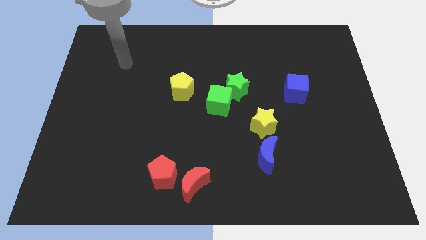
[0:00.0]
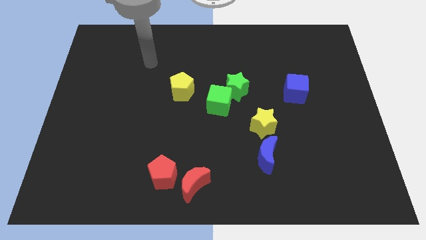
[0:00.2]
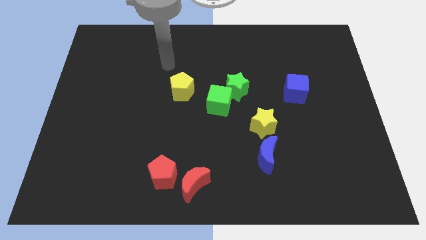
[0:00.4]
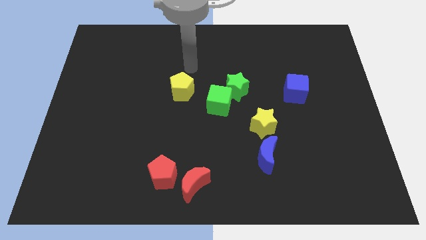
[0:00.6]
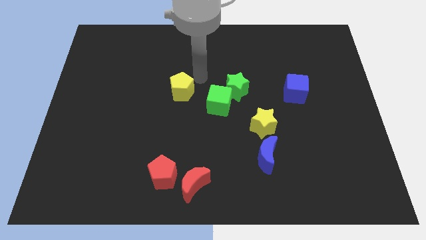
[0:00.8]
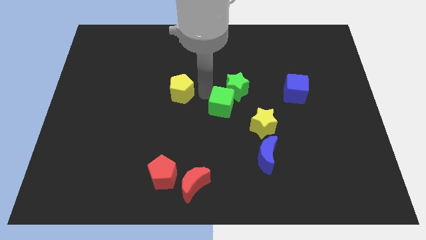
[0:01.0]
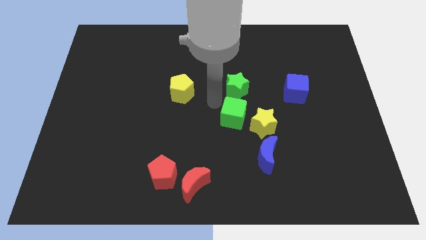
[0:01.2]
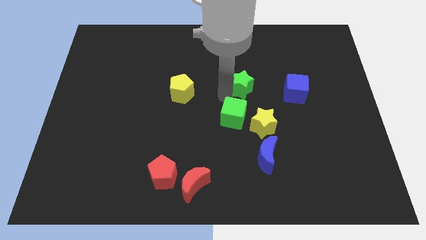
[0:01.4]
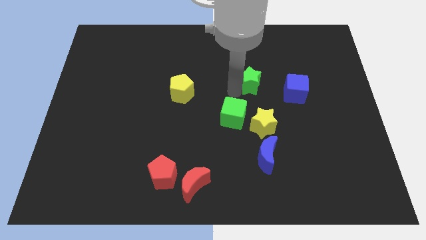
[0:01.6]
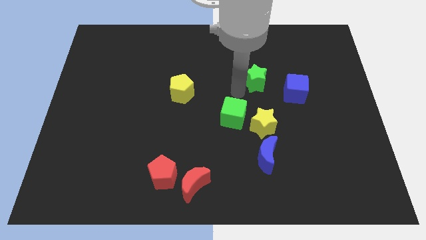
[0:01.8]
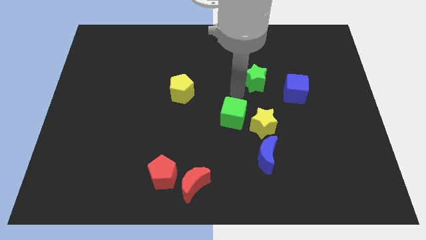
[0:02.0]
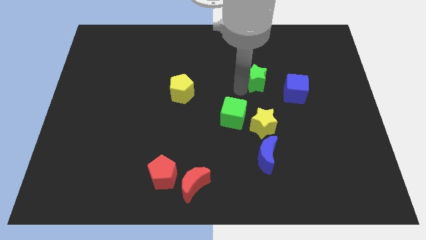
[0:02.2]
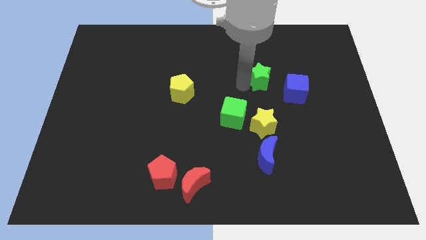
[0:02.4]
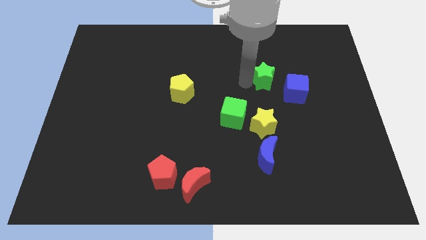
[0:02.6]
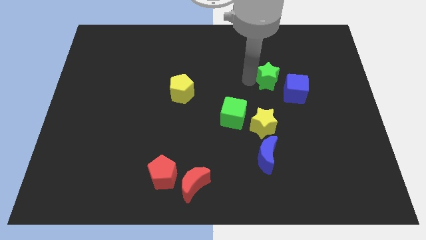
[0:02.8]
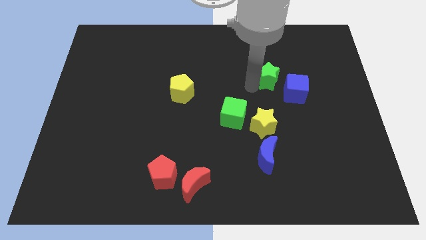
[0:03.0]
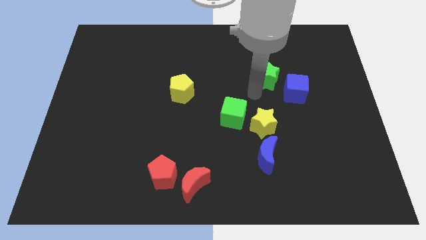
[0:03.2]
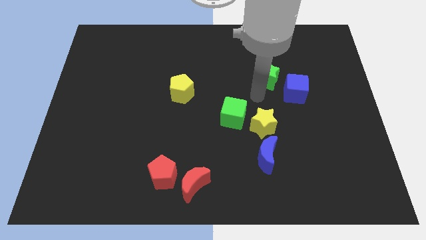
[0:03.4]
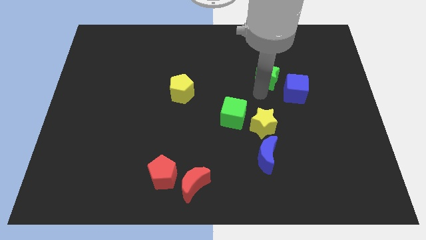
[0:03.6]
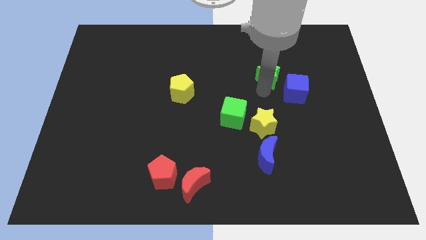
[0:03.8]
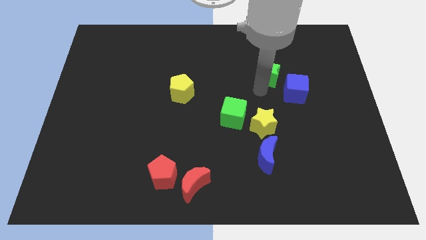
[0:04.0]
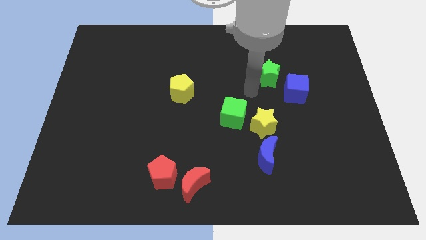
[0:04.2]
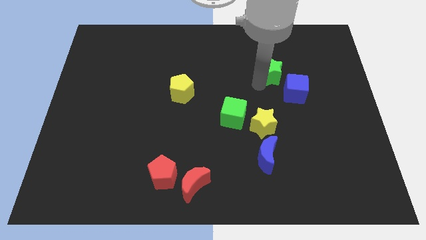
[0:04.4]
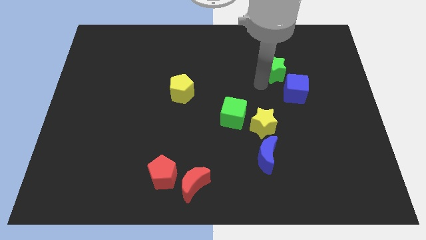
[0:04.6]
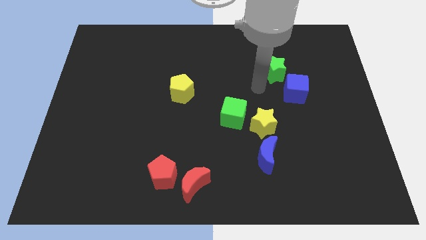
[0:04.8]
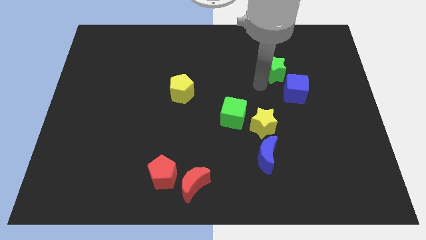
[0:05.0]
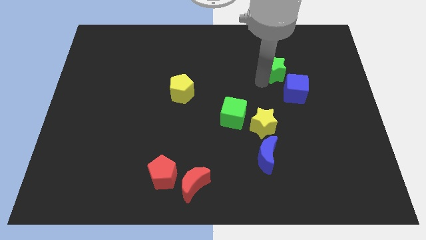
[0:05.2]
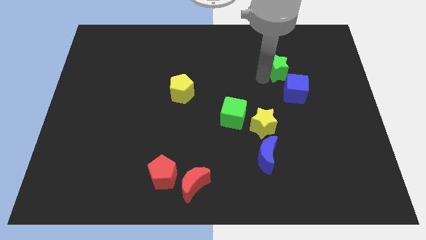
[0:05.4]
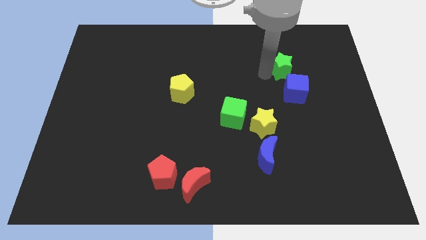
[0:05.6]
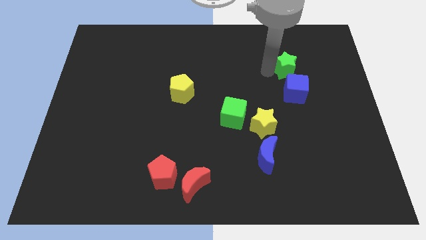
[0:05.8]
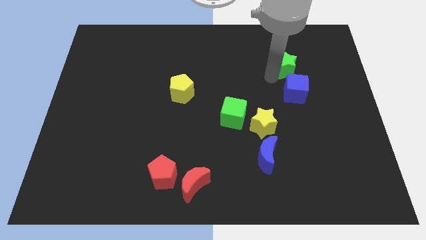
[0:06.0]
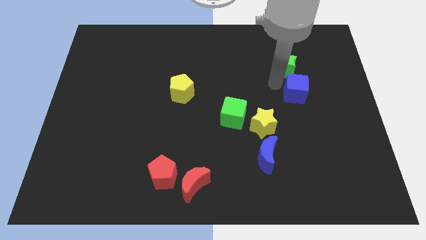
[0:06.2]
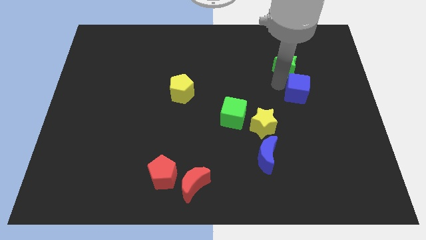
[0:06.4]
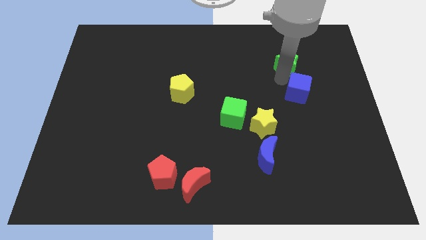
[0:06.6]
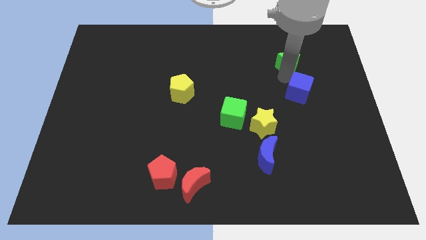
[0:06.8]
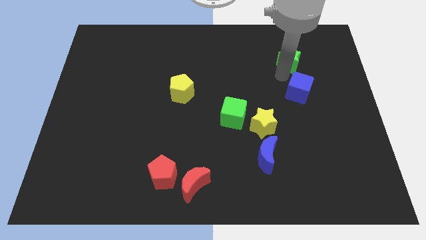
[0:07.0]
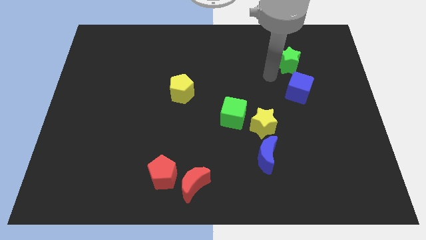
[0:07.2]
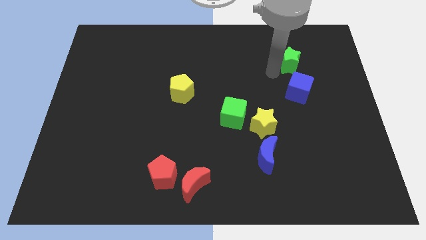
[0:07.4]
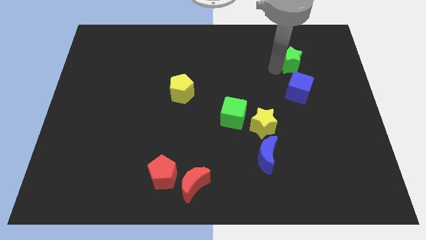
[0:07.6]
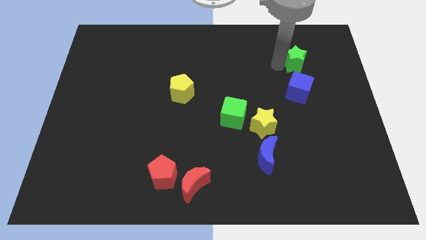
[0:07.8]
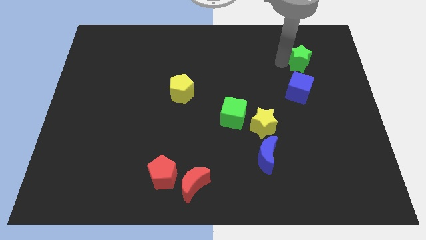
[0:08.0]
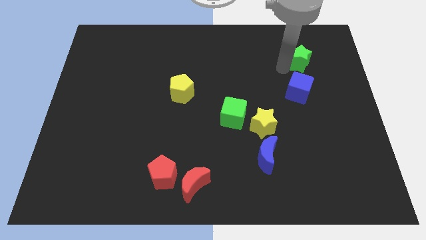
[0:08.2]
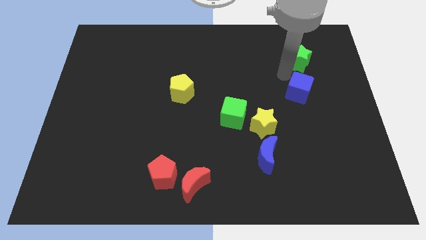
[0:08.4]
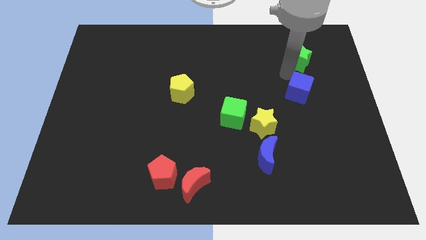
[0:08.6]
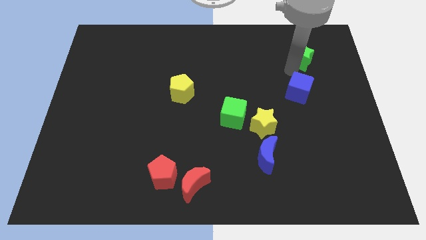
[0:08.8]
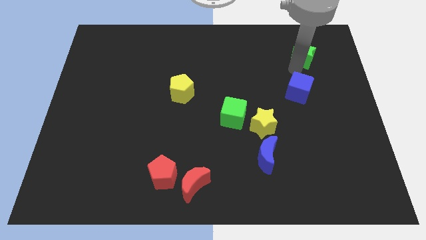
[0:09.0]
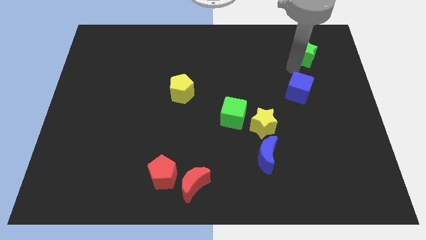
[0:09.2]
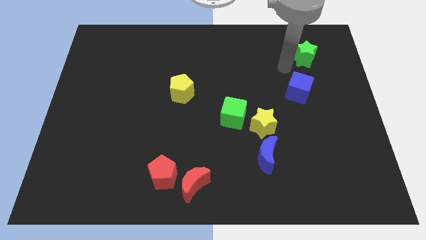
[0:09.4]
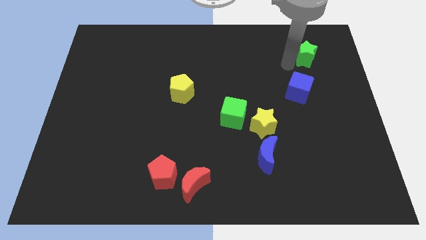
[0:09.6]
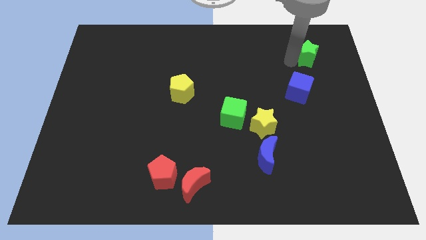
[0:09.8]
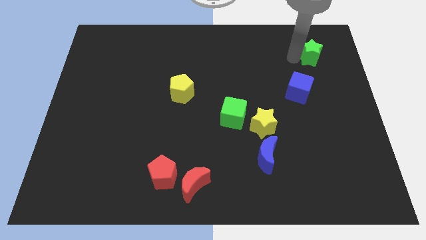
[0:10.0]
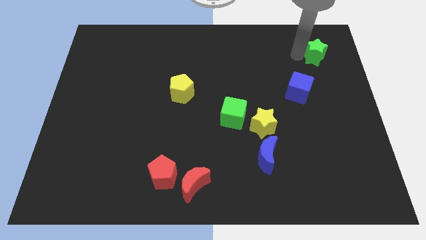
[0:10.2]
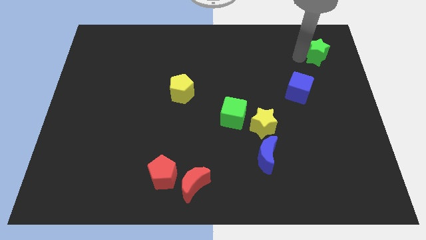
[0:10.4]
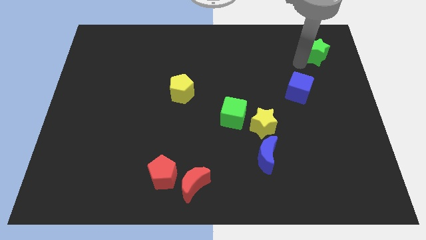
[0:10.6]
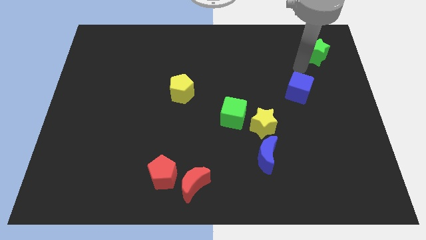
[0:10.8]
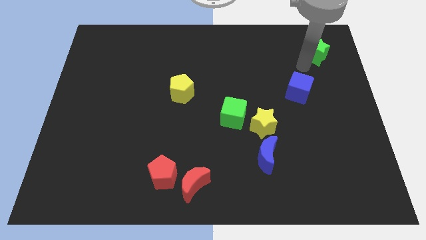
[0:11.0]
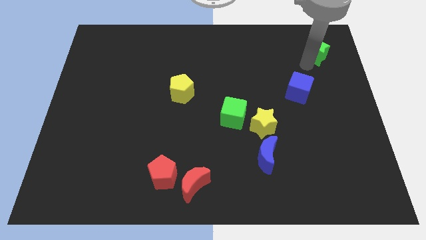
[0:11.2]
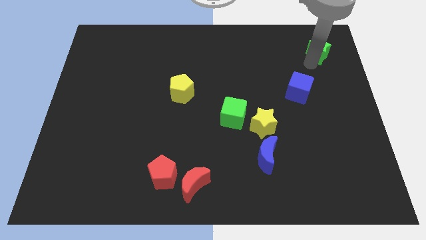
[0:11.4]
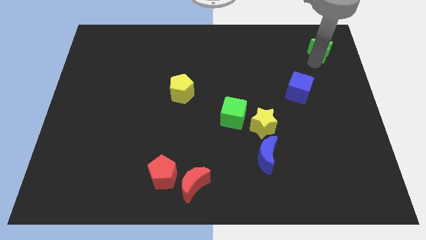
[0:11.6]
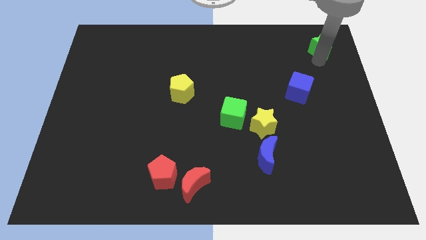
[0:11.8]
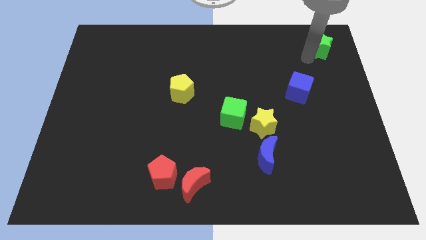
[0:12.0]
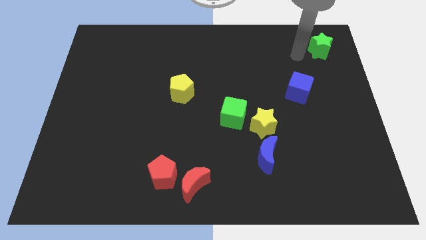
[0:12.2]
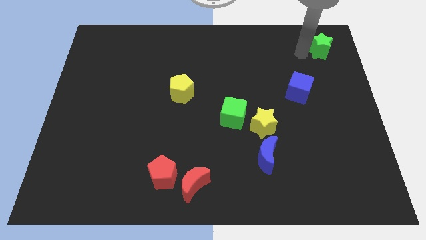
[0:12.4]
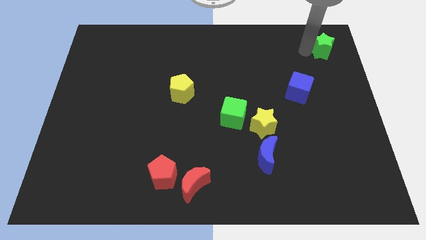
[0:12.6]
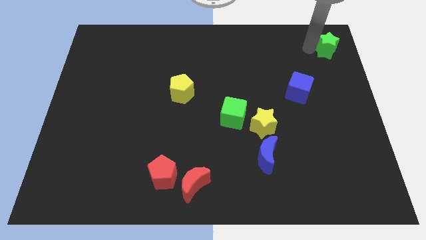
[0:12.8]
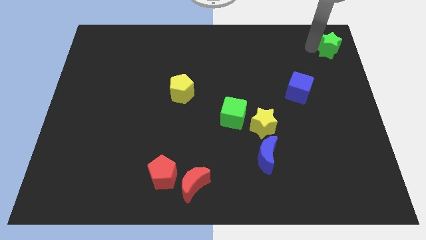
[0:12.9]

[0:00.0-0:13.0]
put the green star to the top right

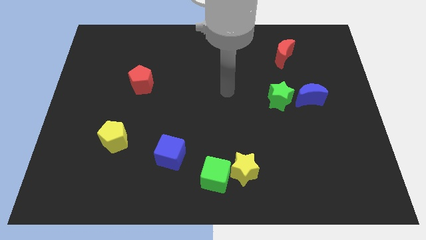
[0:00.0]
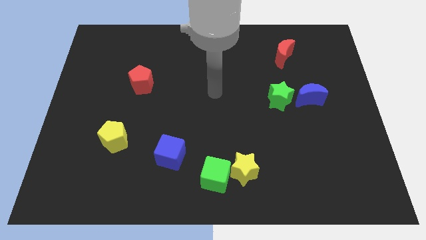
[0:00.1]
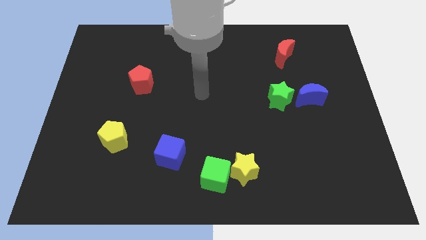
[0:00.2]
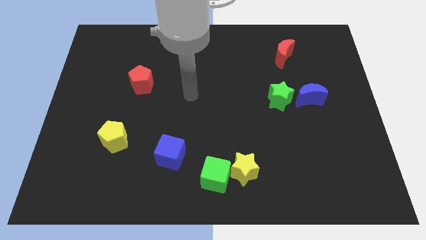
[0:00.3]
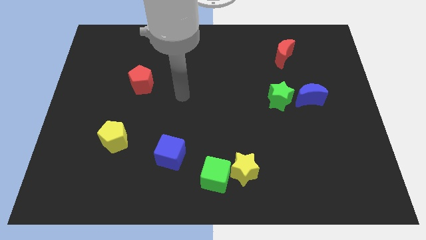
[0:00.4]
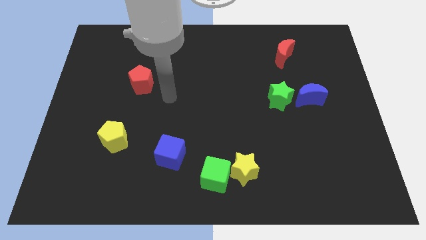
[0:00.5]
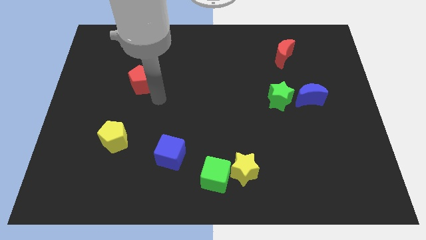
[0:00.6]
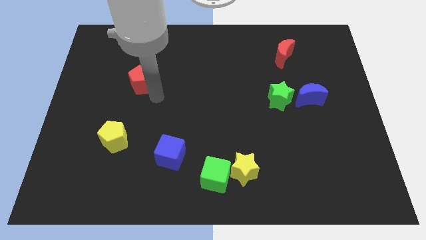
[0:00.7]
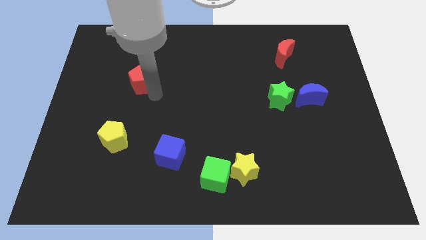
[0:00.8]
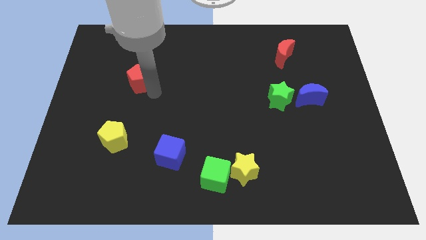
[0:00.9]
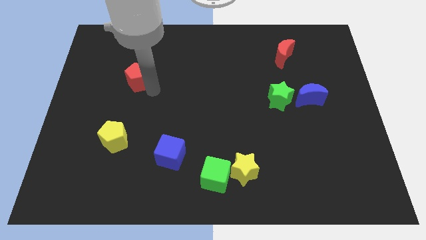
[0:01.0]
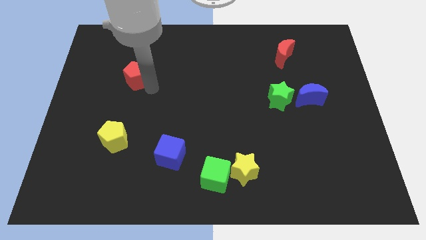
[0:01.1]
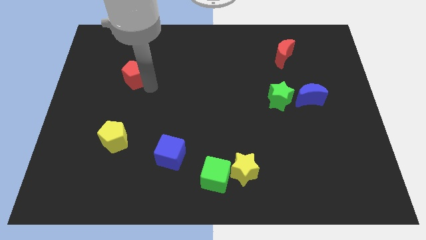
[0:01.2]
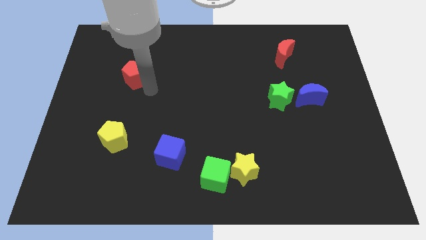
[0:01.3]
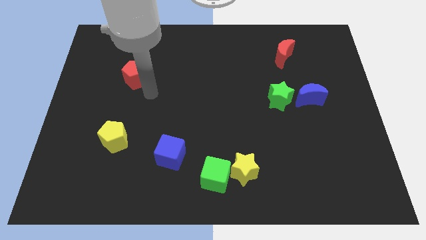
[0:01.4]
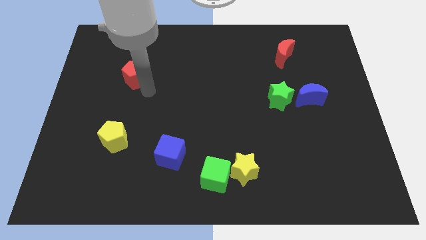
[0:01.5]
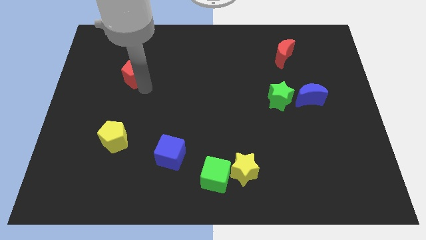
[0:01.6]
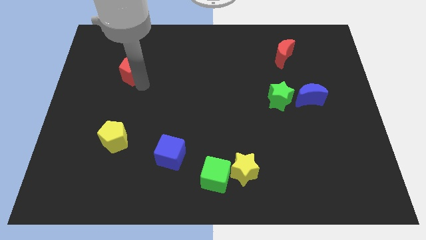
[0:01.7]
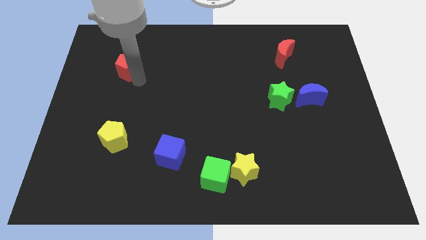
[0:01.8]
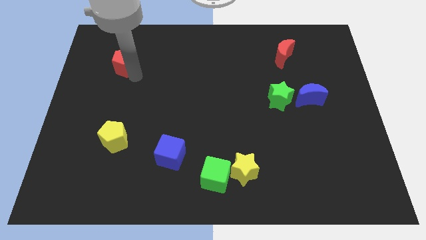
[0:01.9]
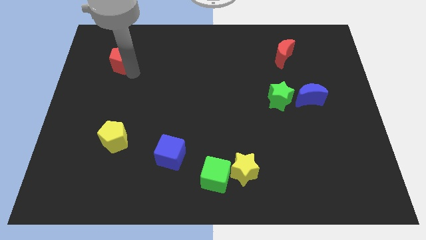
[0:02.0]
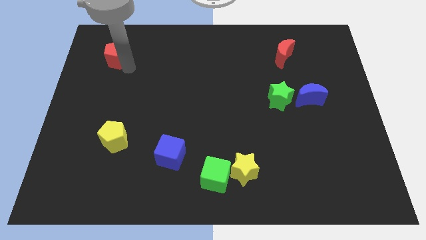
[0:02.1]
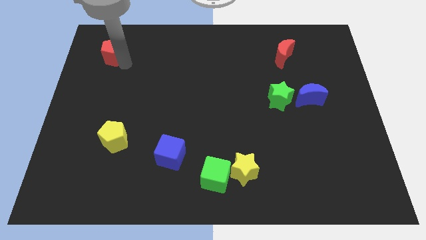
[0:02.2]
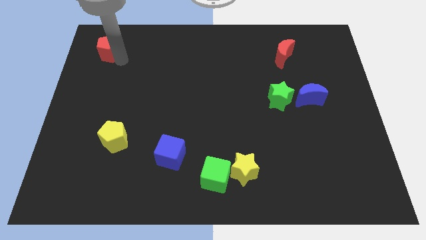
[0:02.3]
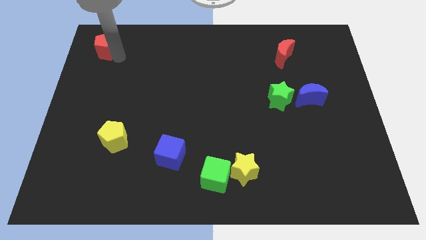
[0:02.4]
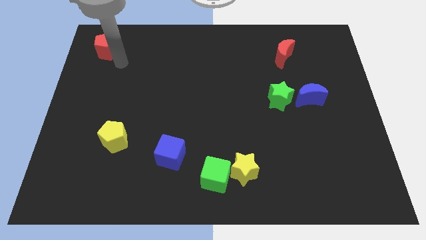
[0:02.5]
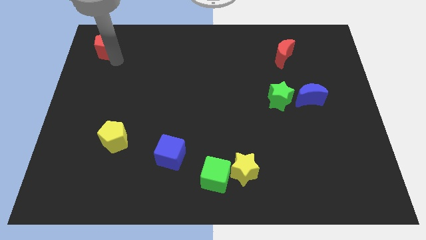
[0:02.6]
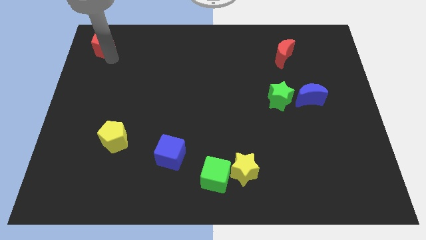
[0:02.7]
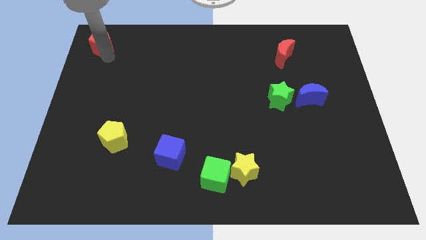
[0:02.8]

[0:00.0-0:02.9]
slide the red pentagon to the upper left corner
